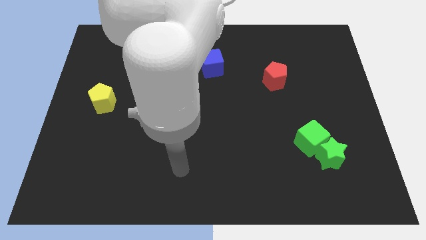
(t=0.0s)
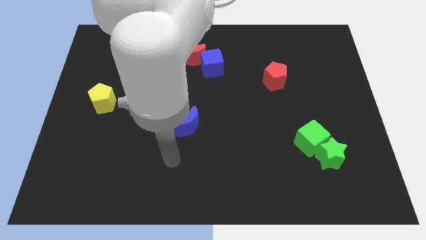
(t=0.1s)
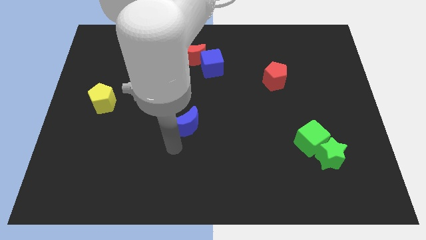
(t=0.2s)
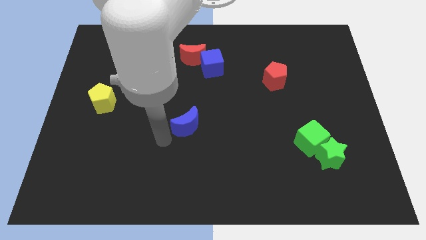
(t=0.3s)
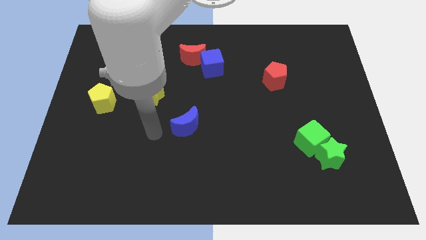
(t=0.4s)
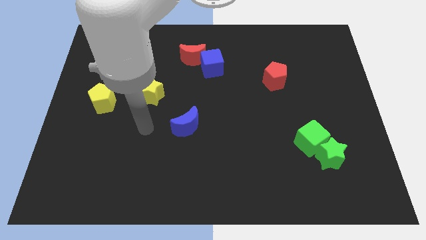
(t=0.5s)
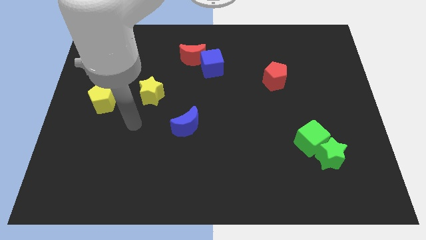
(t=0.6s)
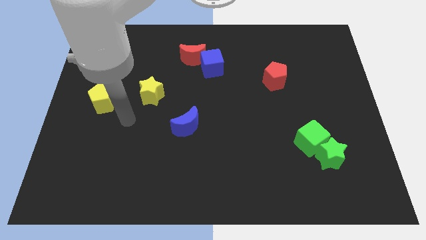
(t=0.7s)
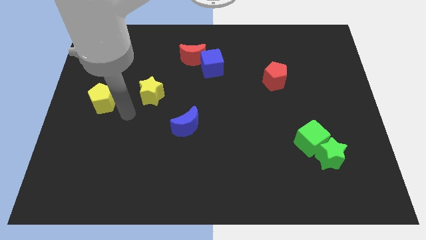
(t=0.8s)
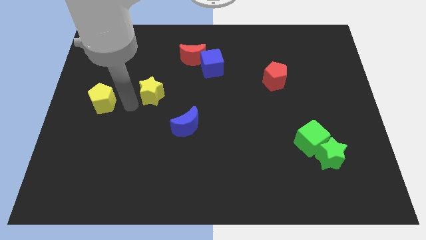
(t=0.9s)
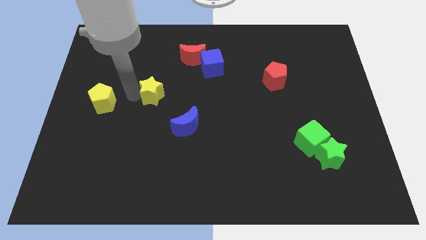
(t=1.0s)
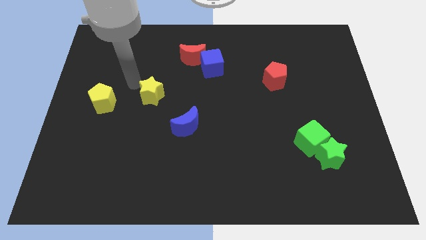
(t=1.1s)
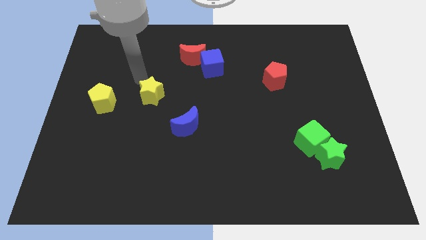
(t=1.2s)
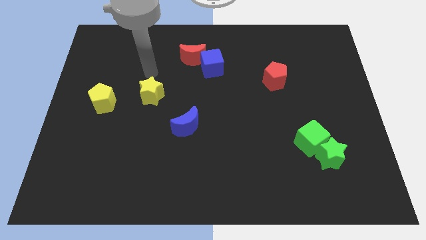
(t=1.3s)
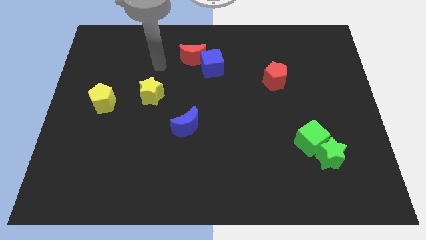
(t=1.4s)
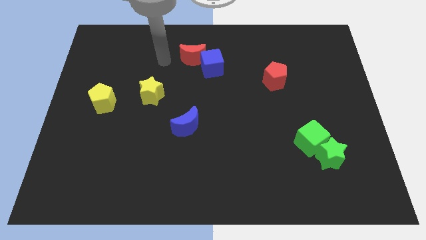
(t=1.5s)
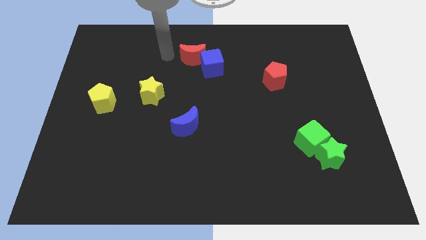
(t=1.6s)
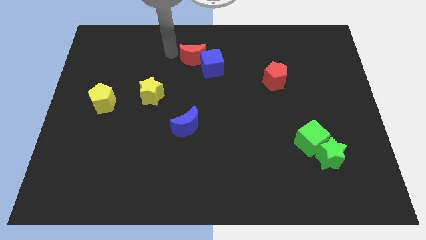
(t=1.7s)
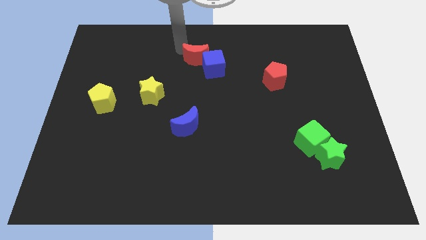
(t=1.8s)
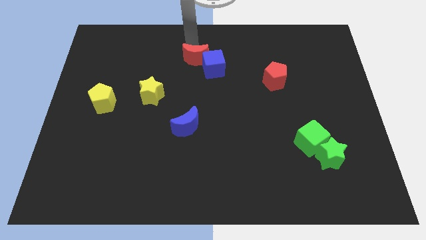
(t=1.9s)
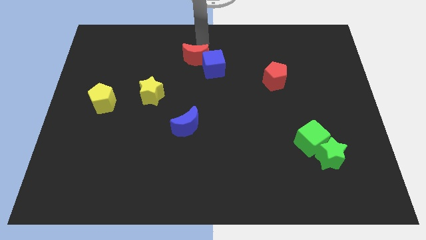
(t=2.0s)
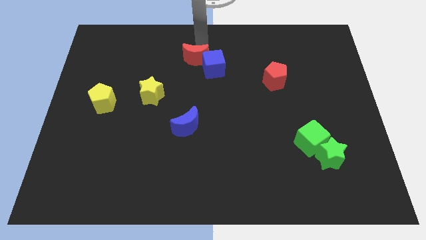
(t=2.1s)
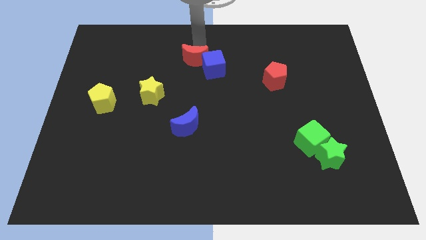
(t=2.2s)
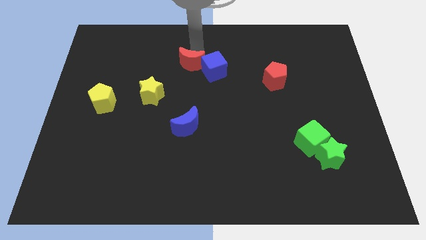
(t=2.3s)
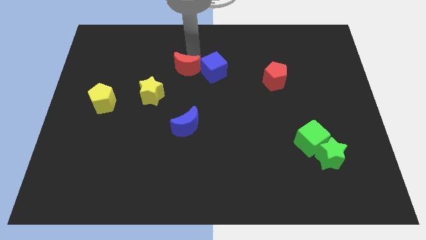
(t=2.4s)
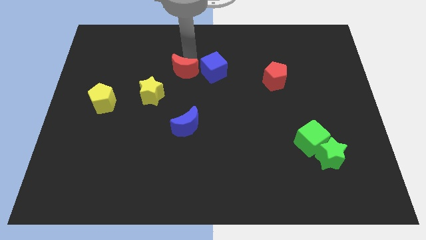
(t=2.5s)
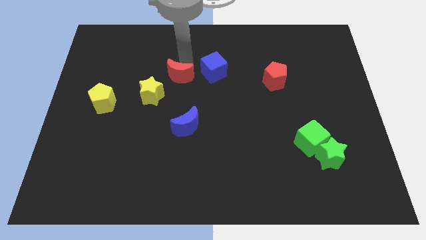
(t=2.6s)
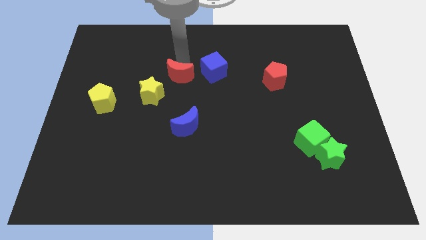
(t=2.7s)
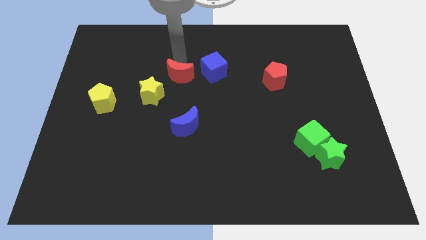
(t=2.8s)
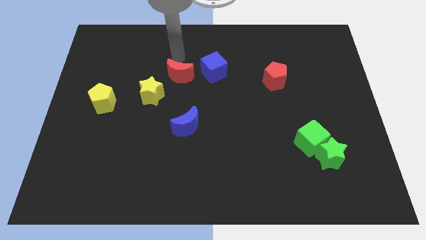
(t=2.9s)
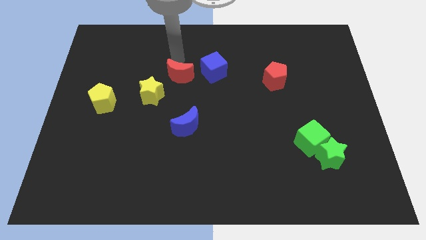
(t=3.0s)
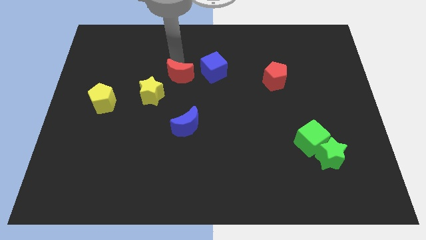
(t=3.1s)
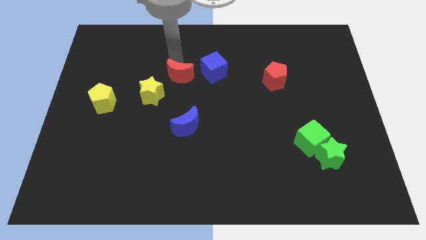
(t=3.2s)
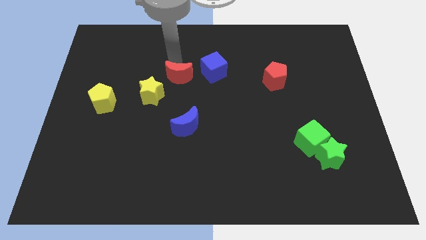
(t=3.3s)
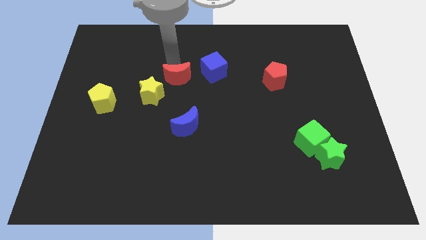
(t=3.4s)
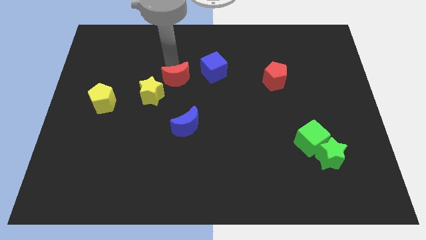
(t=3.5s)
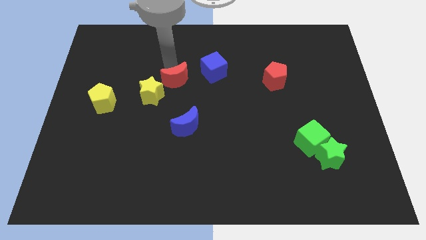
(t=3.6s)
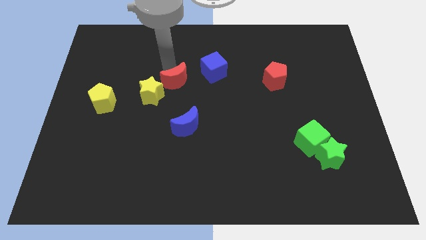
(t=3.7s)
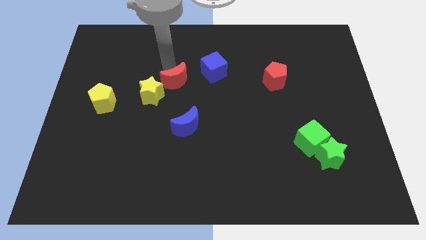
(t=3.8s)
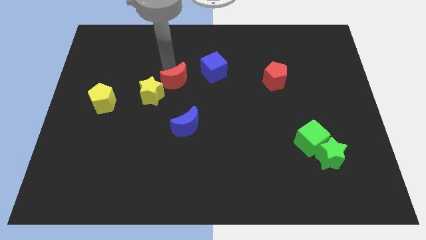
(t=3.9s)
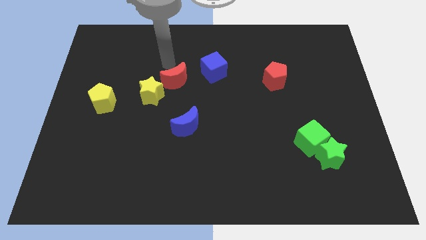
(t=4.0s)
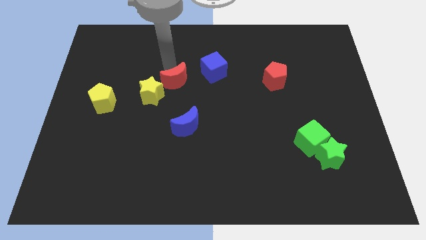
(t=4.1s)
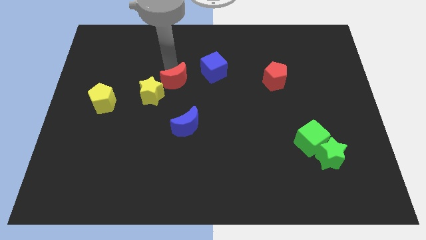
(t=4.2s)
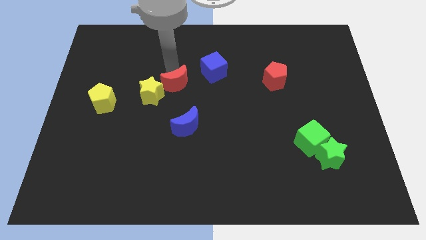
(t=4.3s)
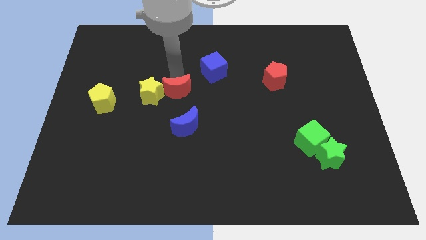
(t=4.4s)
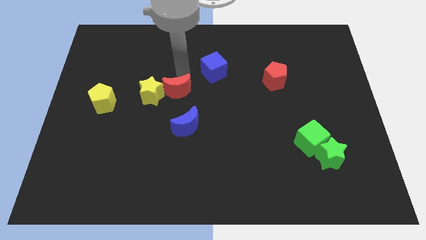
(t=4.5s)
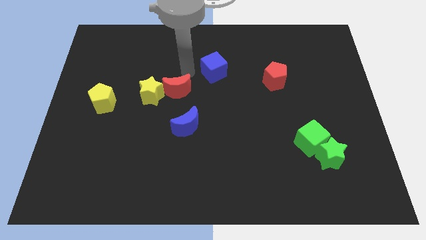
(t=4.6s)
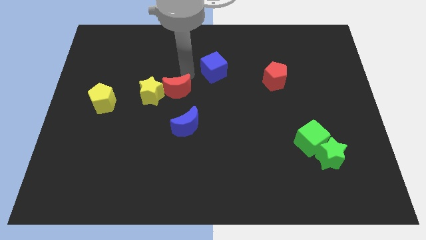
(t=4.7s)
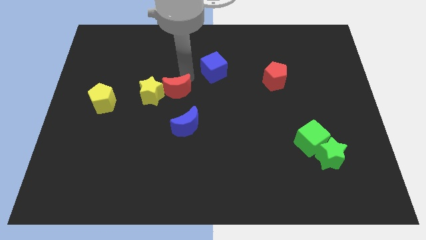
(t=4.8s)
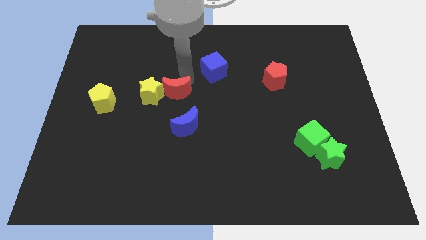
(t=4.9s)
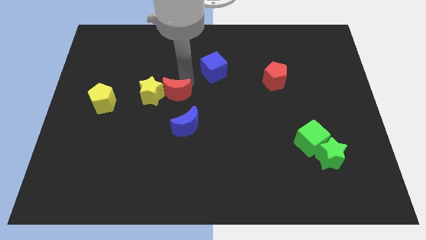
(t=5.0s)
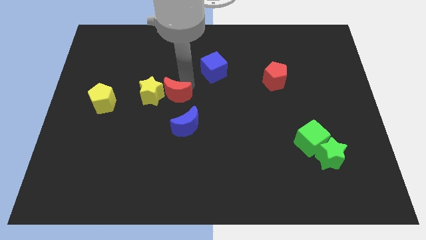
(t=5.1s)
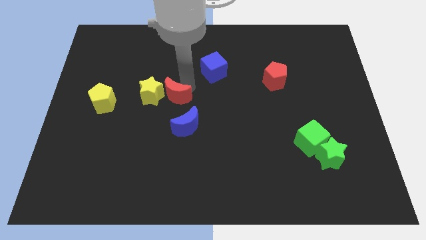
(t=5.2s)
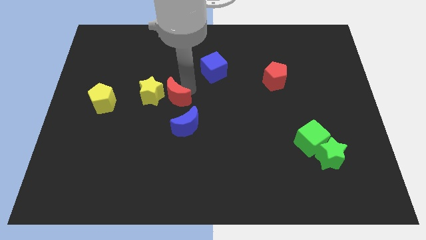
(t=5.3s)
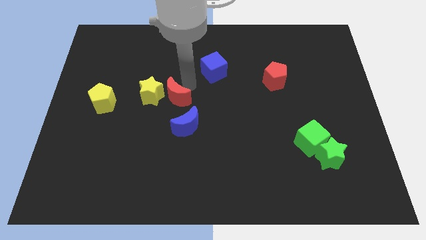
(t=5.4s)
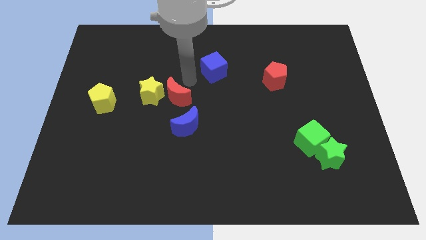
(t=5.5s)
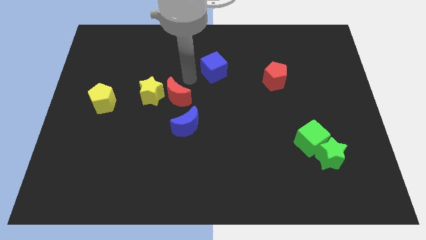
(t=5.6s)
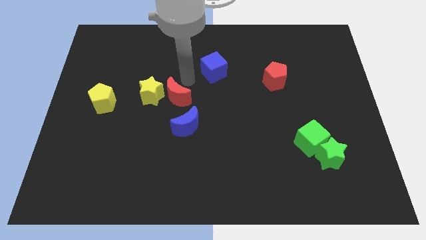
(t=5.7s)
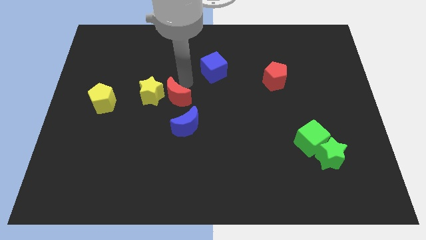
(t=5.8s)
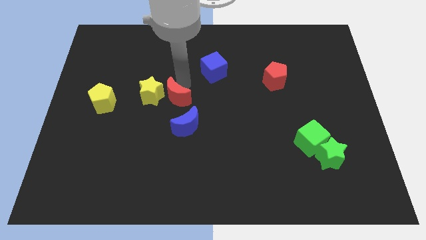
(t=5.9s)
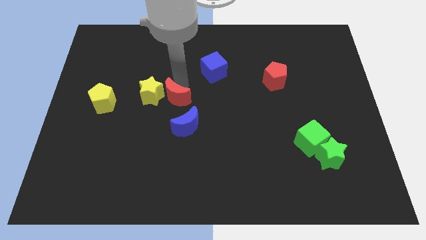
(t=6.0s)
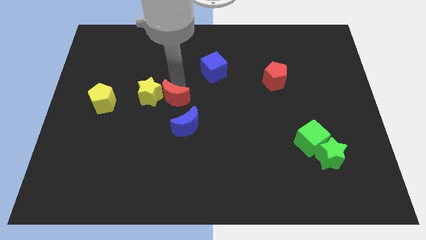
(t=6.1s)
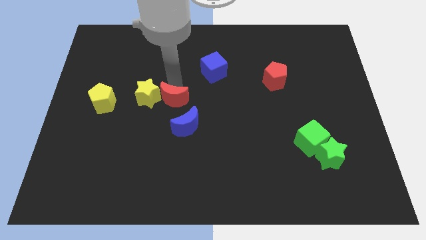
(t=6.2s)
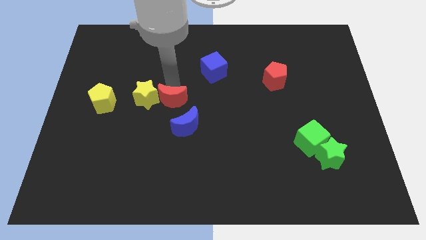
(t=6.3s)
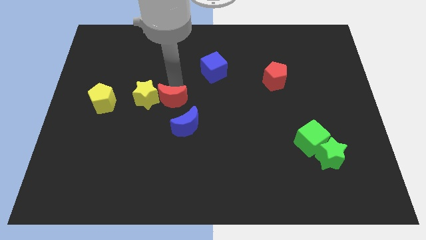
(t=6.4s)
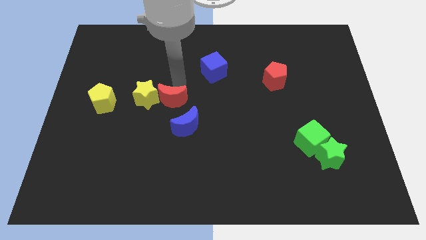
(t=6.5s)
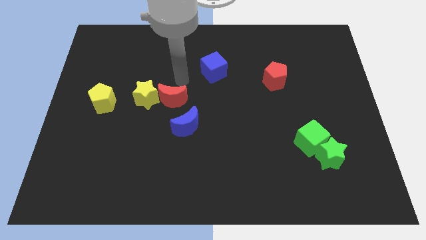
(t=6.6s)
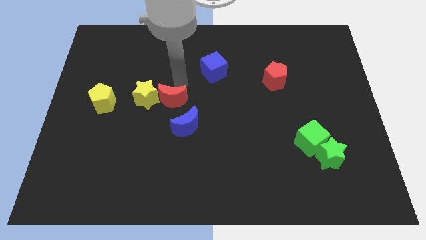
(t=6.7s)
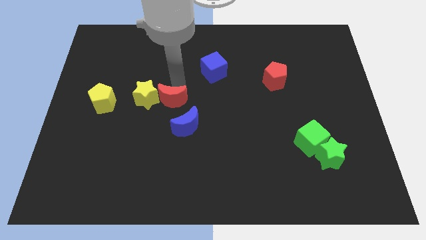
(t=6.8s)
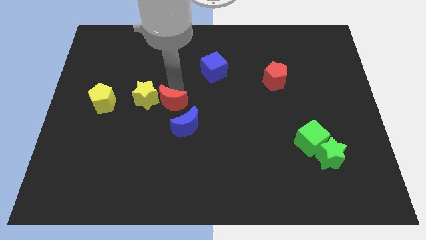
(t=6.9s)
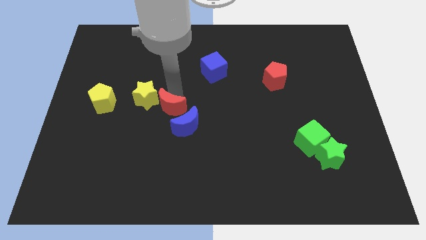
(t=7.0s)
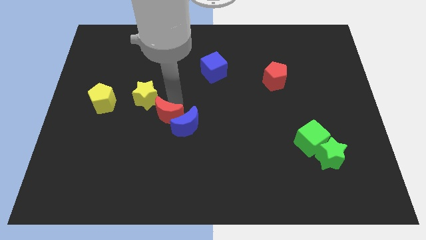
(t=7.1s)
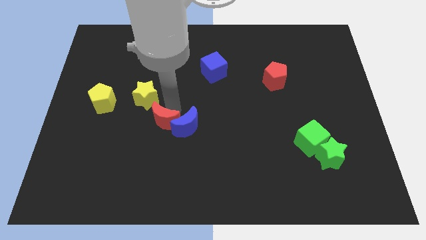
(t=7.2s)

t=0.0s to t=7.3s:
slide the red moon below the yellow star

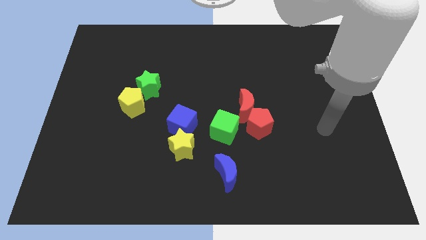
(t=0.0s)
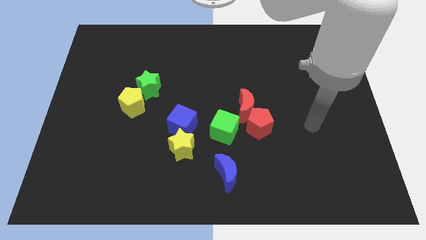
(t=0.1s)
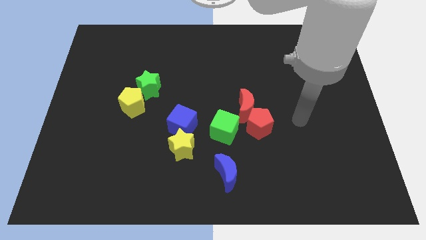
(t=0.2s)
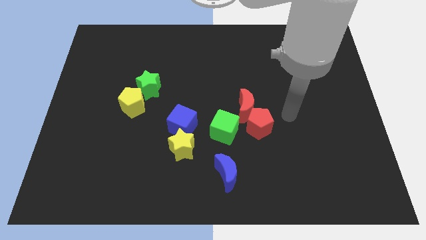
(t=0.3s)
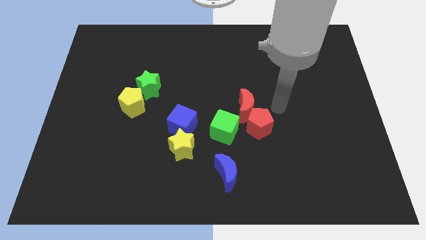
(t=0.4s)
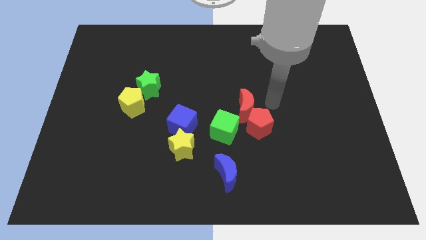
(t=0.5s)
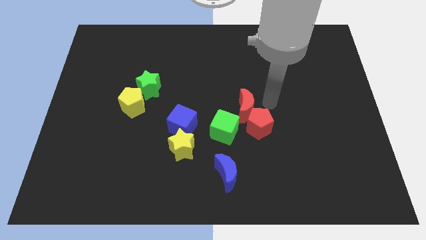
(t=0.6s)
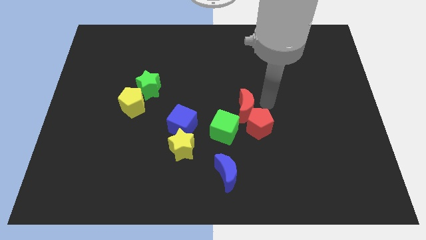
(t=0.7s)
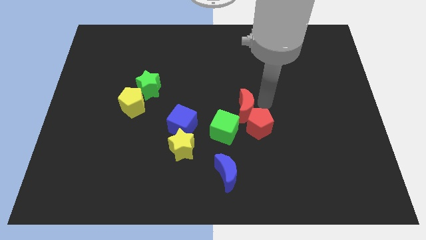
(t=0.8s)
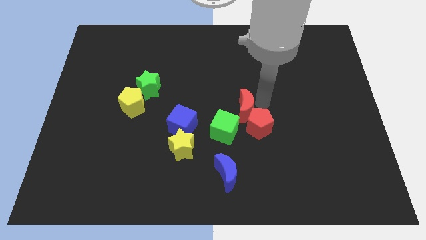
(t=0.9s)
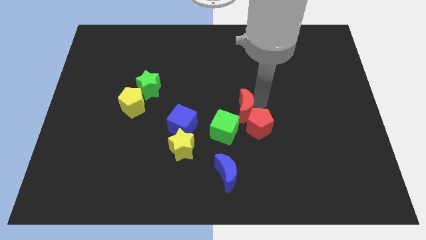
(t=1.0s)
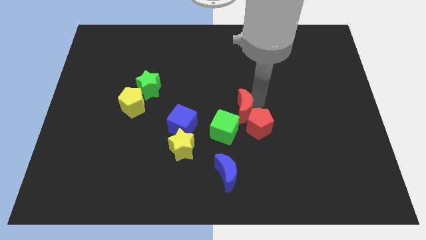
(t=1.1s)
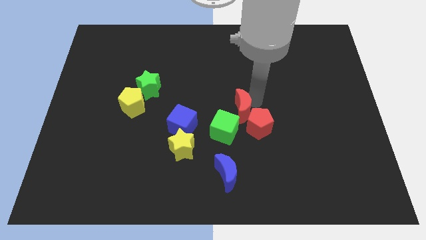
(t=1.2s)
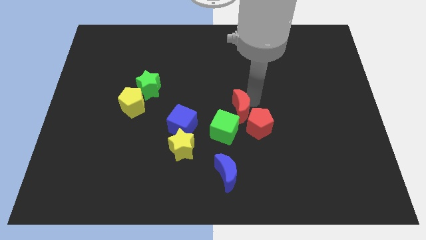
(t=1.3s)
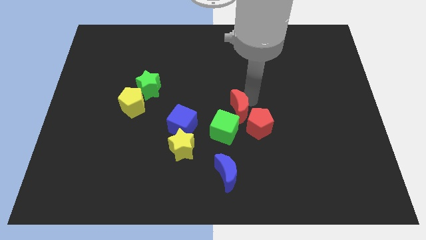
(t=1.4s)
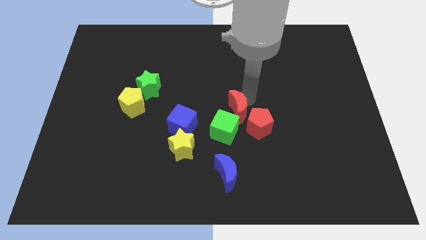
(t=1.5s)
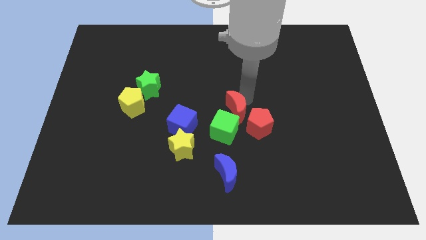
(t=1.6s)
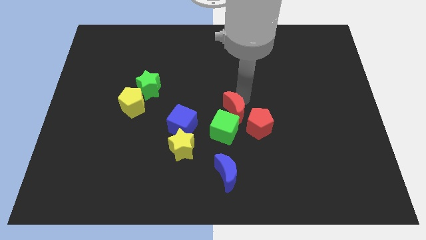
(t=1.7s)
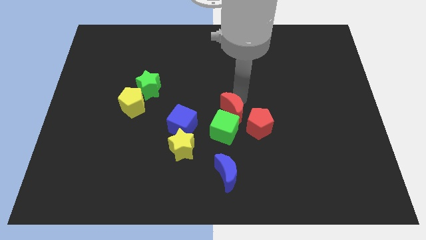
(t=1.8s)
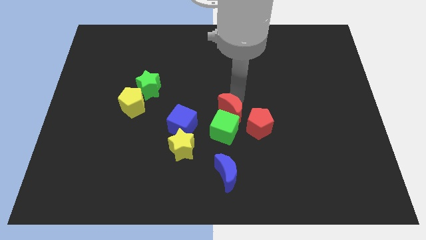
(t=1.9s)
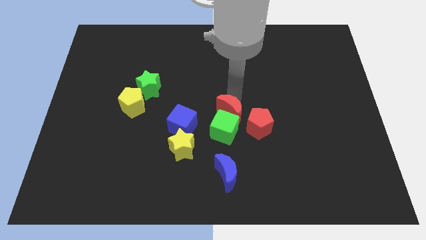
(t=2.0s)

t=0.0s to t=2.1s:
push the red moon to the top of the blue moon
